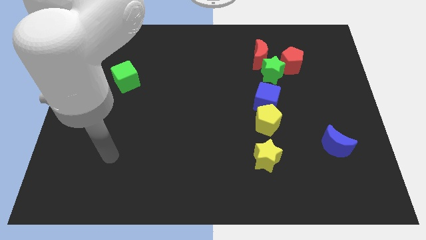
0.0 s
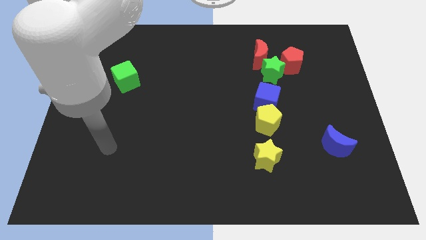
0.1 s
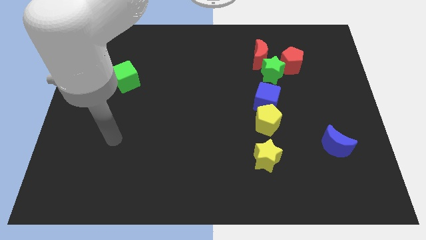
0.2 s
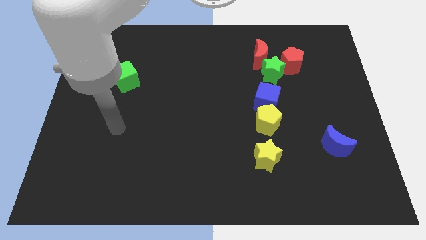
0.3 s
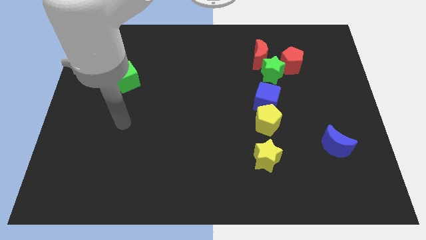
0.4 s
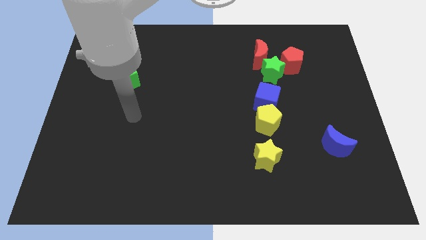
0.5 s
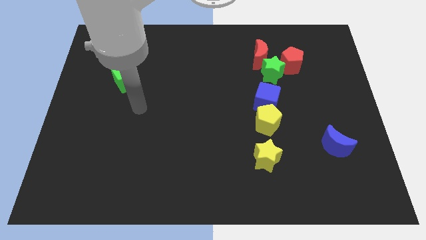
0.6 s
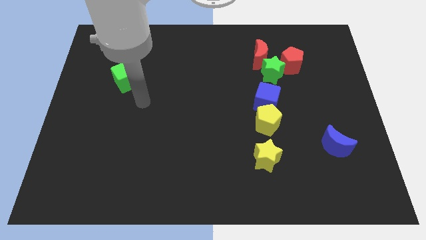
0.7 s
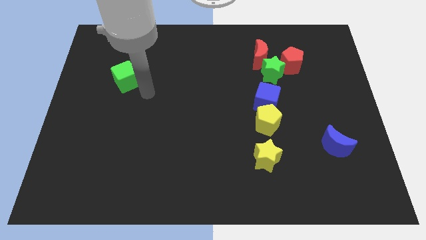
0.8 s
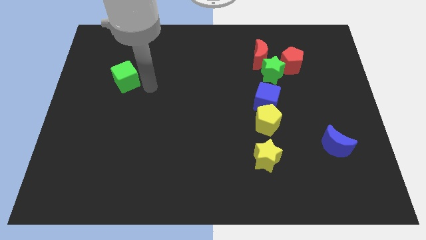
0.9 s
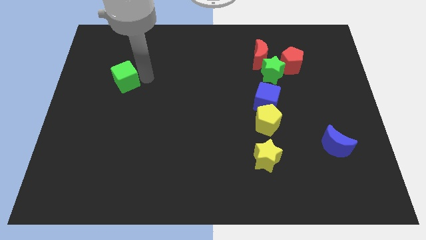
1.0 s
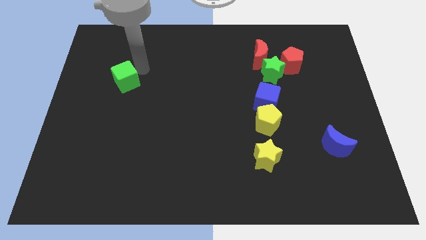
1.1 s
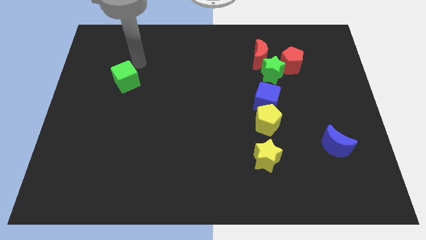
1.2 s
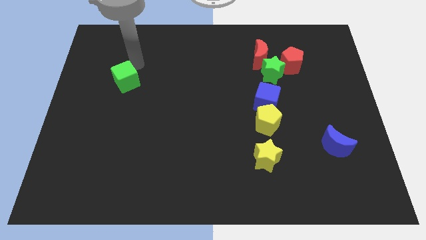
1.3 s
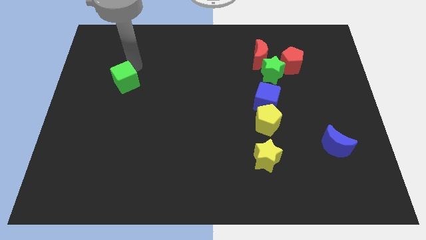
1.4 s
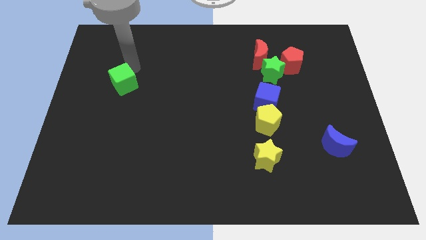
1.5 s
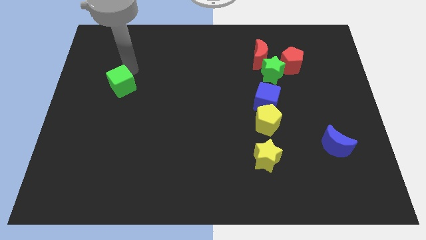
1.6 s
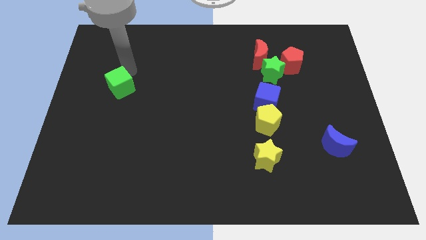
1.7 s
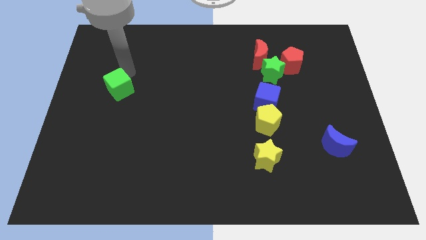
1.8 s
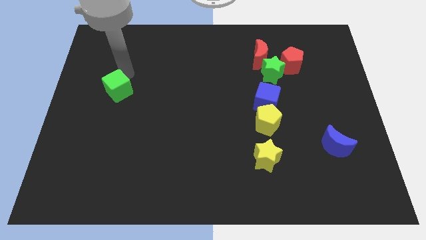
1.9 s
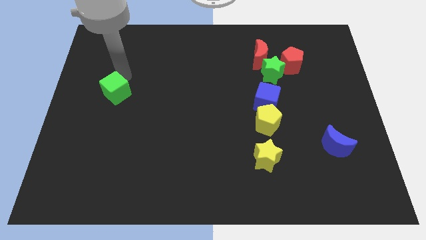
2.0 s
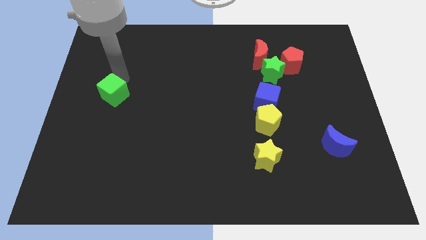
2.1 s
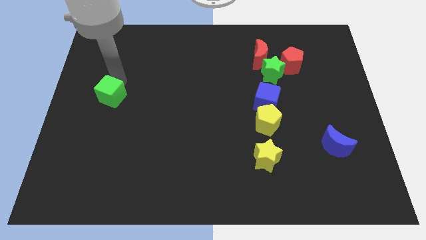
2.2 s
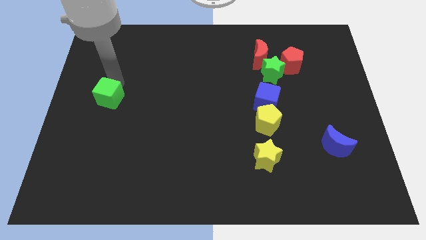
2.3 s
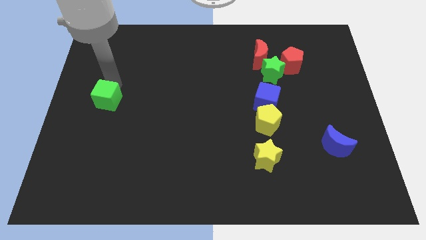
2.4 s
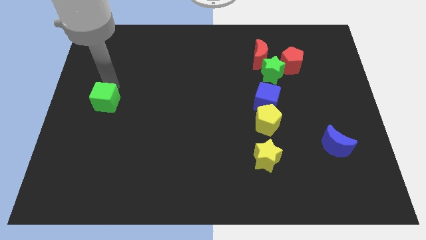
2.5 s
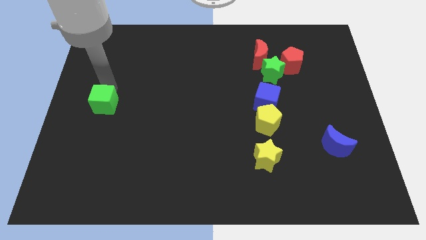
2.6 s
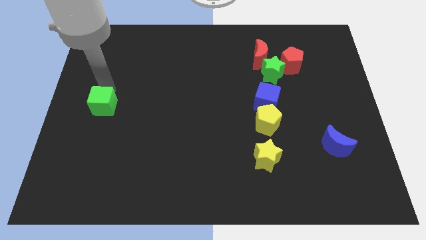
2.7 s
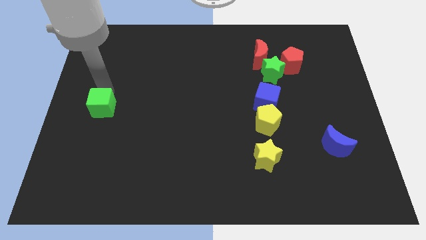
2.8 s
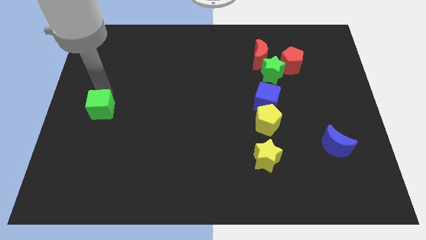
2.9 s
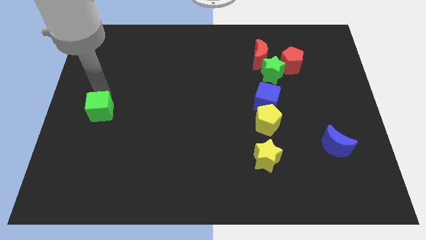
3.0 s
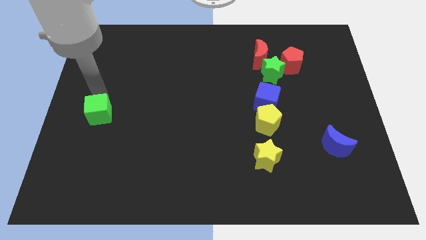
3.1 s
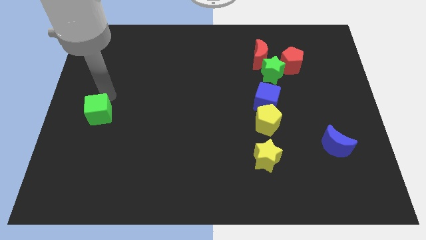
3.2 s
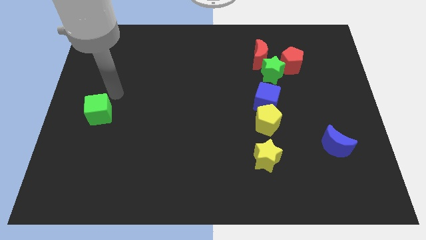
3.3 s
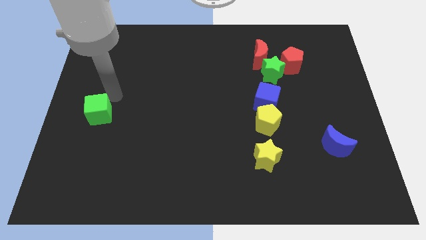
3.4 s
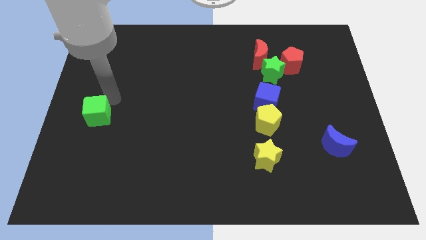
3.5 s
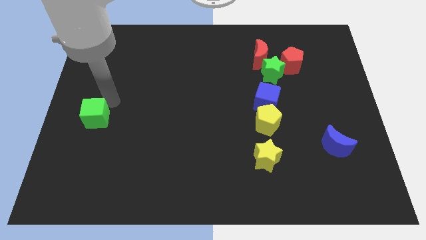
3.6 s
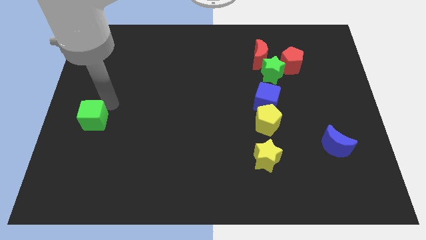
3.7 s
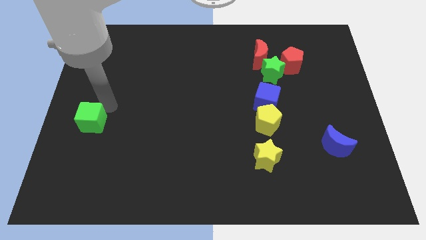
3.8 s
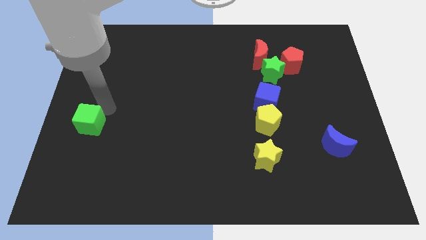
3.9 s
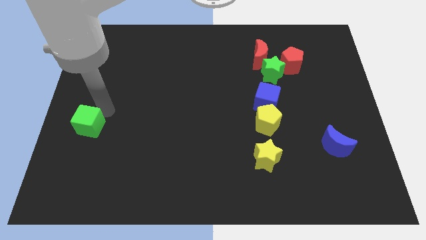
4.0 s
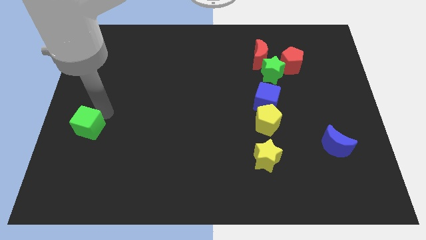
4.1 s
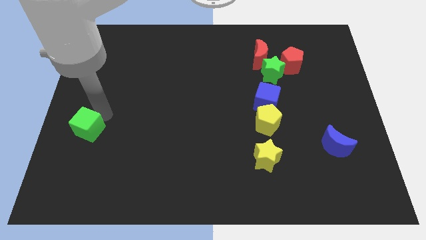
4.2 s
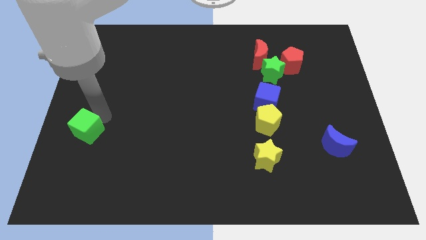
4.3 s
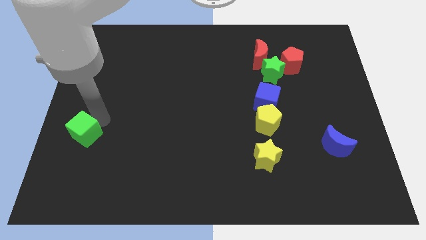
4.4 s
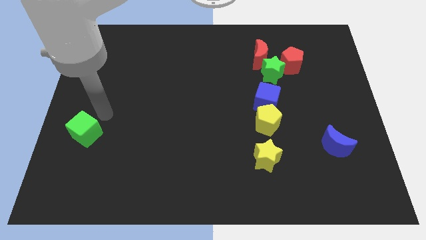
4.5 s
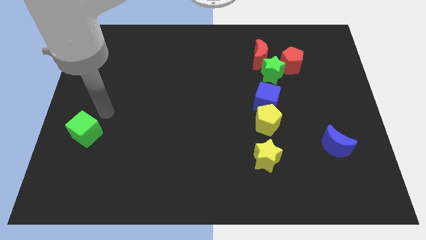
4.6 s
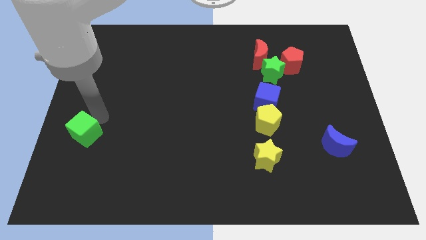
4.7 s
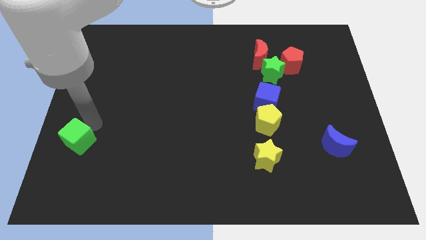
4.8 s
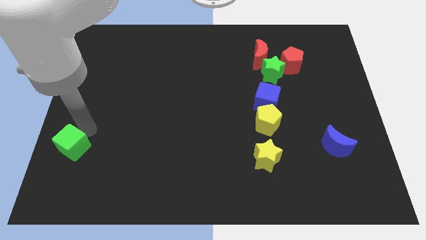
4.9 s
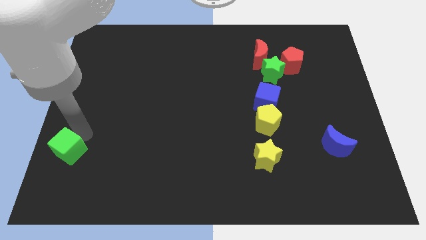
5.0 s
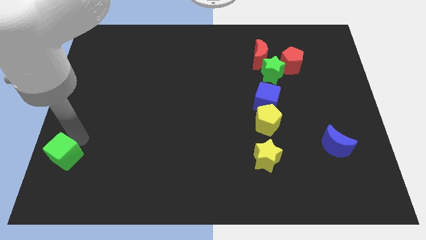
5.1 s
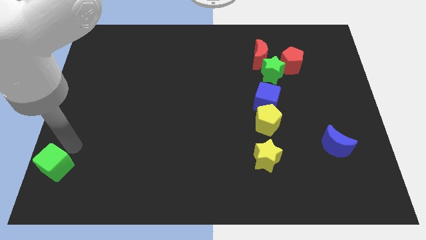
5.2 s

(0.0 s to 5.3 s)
push the green cube to the bottom left corner

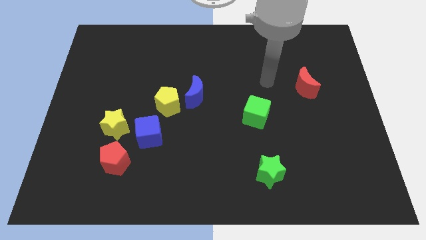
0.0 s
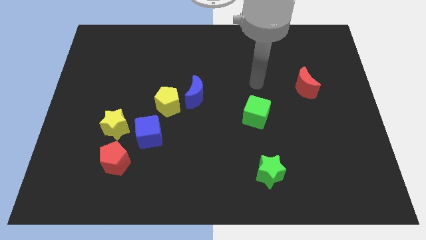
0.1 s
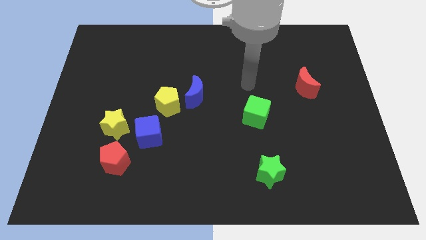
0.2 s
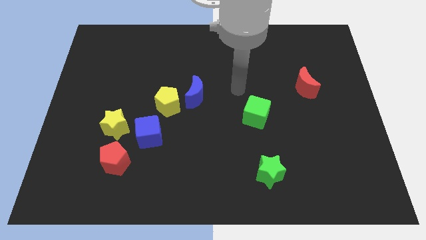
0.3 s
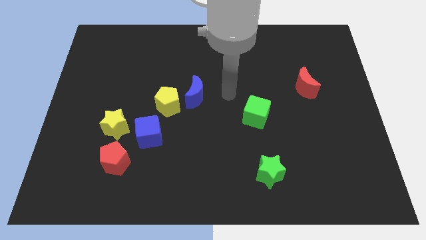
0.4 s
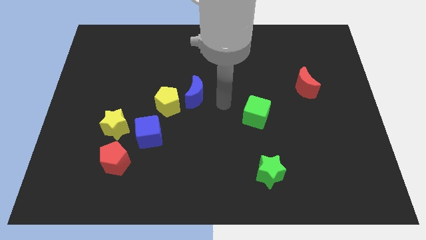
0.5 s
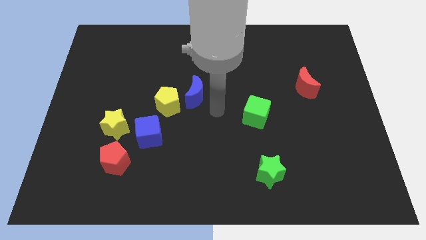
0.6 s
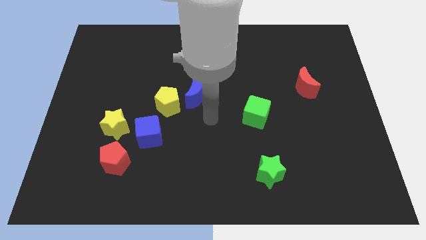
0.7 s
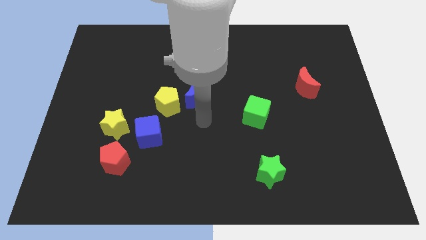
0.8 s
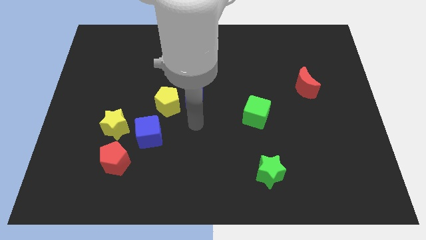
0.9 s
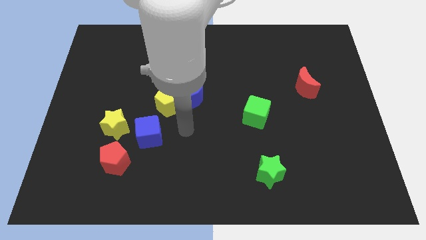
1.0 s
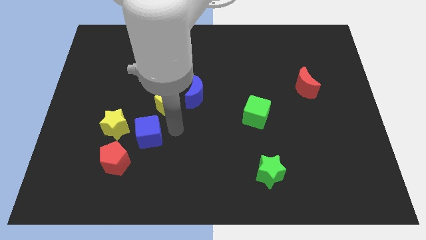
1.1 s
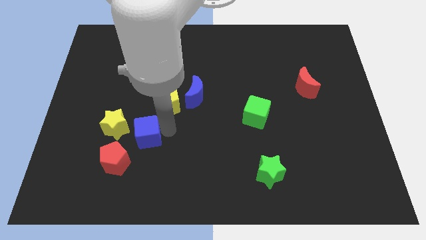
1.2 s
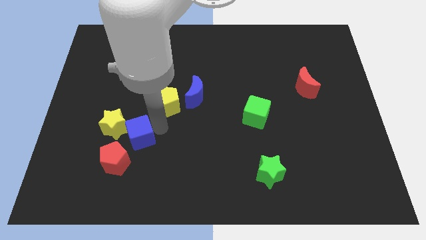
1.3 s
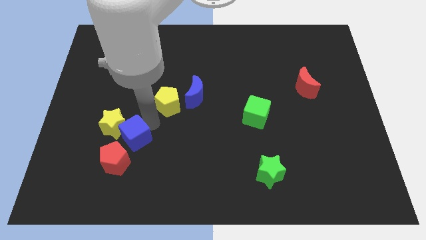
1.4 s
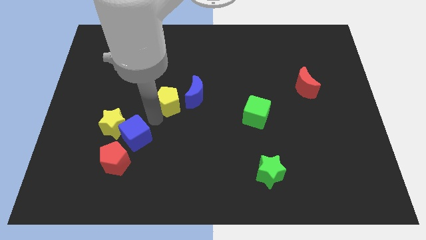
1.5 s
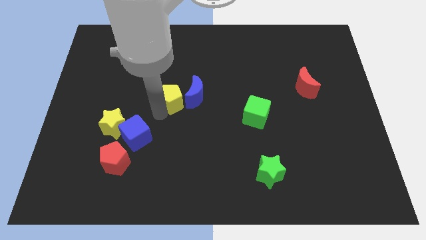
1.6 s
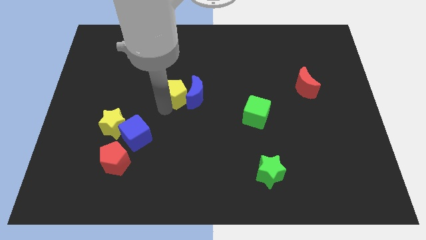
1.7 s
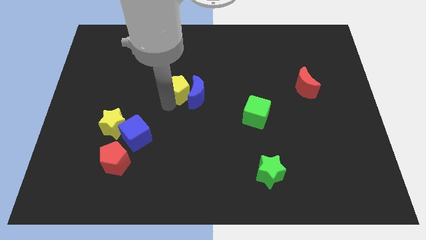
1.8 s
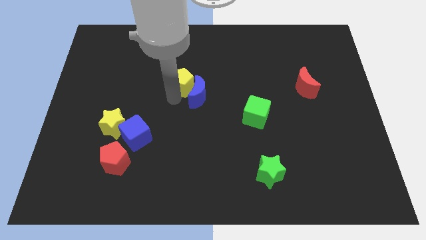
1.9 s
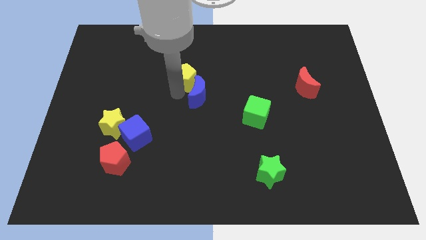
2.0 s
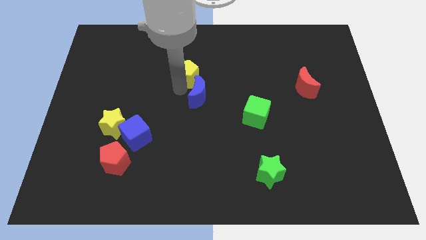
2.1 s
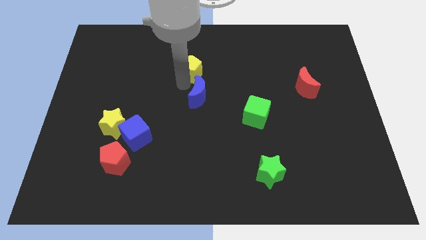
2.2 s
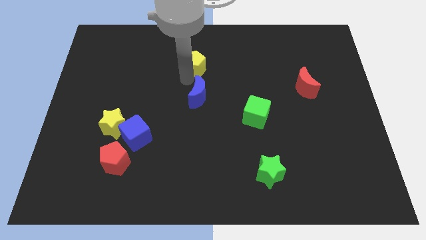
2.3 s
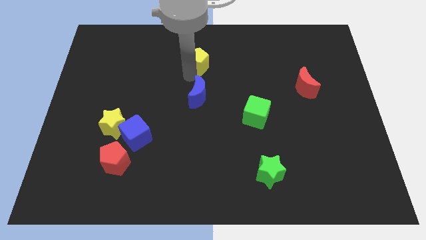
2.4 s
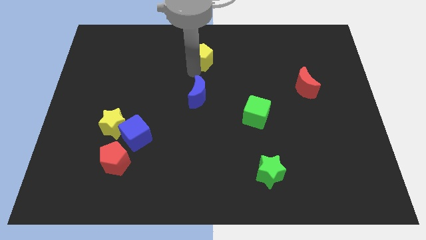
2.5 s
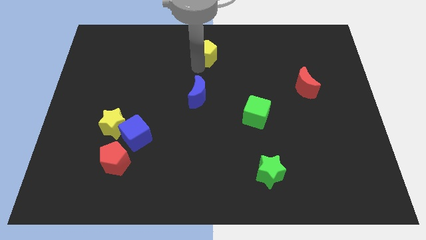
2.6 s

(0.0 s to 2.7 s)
slide the yellow pentagon to the top
